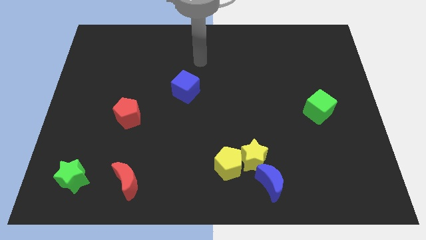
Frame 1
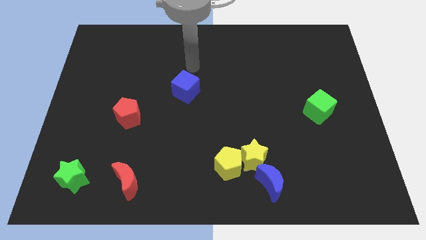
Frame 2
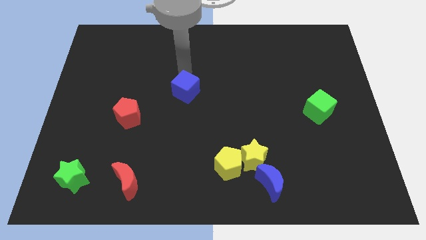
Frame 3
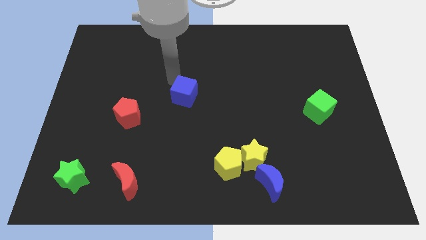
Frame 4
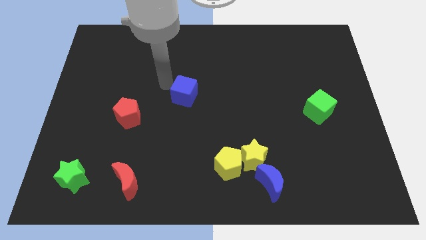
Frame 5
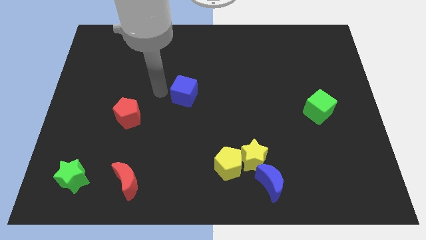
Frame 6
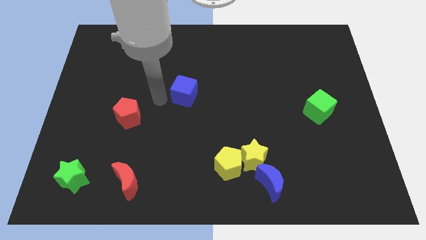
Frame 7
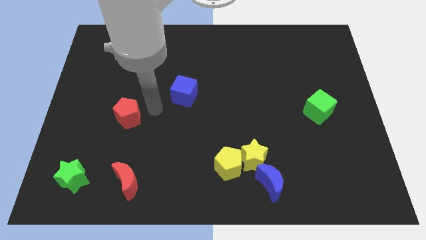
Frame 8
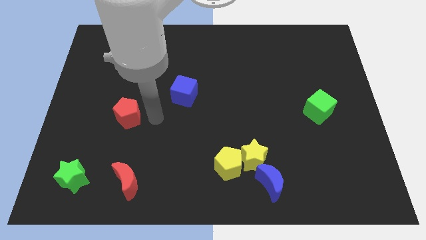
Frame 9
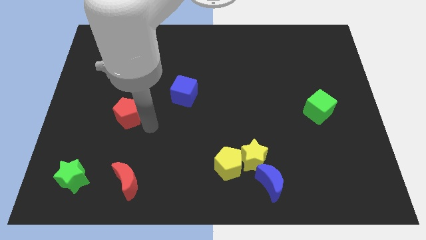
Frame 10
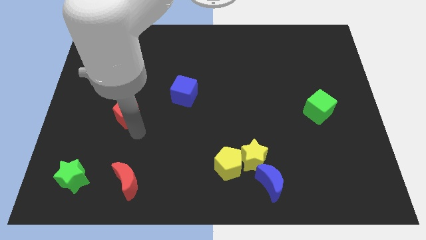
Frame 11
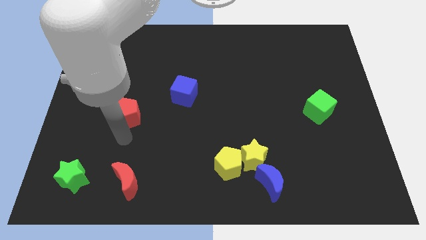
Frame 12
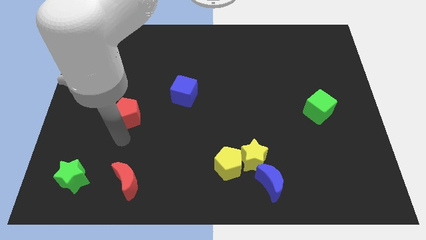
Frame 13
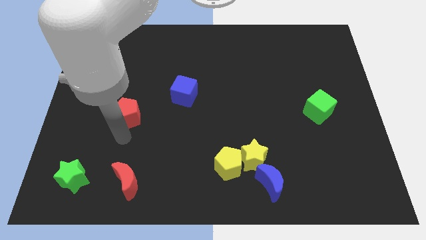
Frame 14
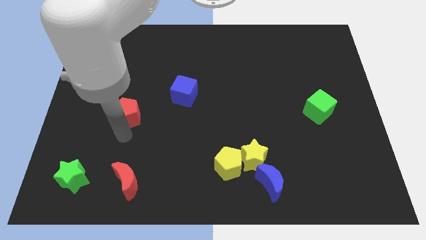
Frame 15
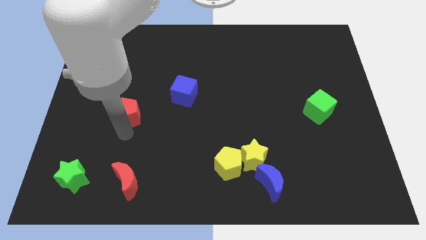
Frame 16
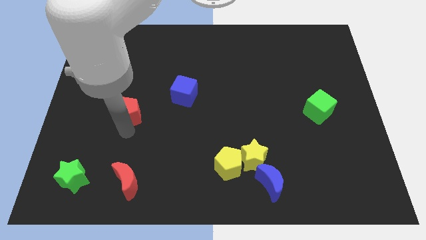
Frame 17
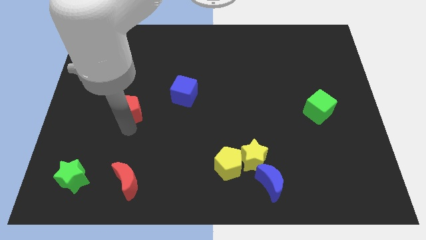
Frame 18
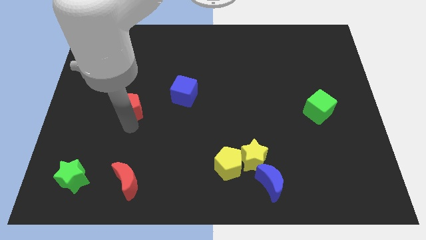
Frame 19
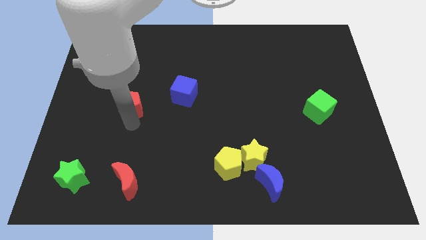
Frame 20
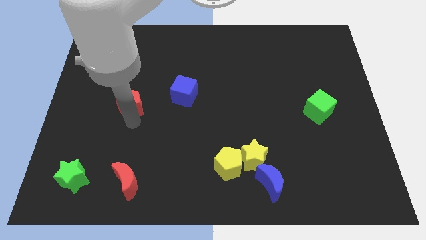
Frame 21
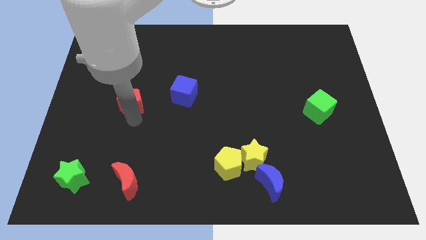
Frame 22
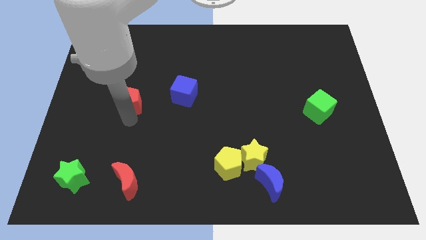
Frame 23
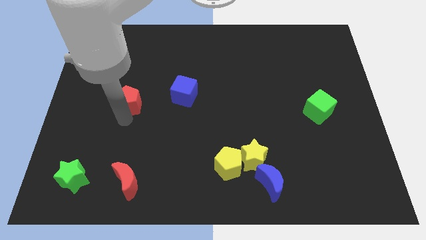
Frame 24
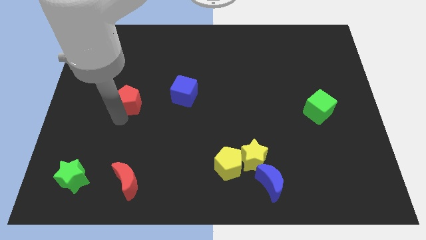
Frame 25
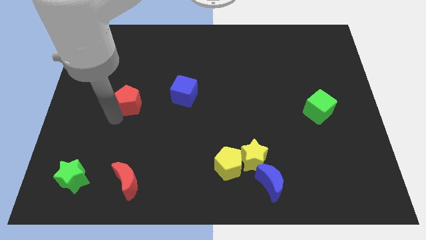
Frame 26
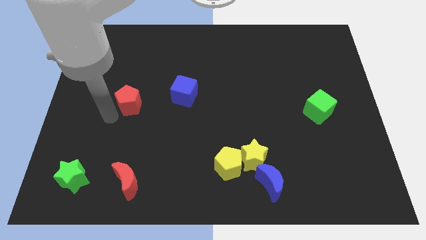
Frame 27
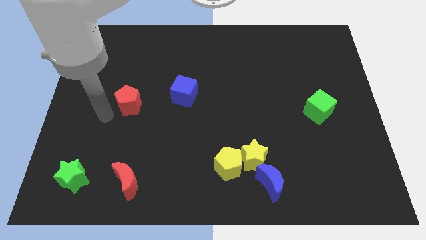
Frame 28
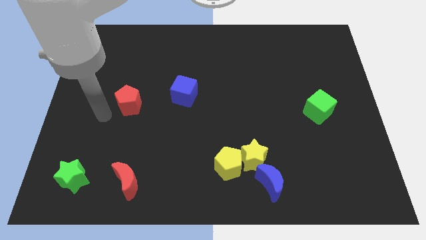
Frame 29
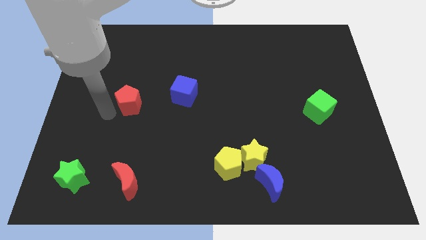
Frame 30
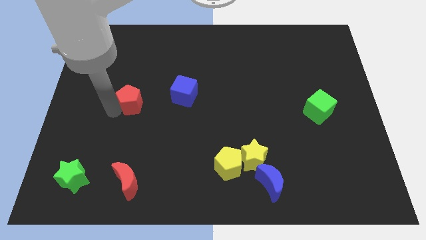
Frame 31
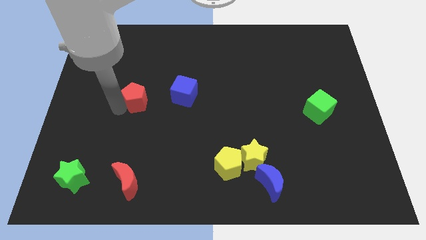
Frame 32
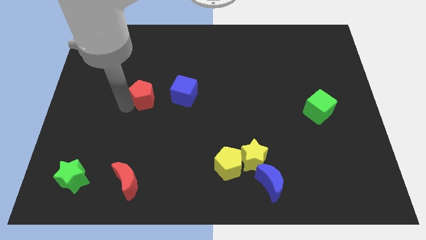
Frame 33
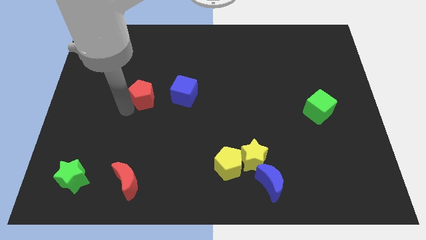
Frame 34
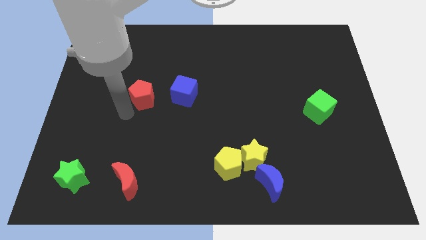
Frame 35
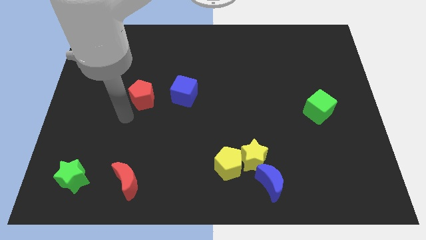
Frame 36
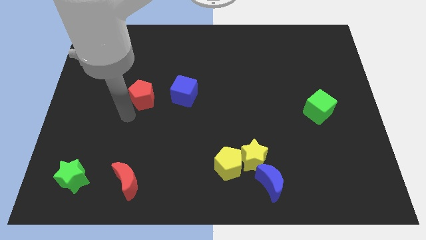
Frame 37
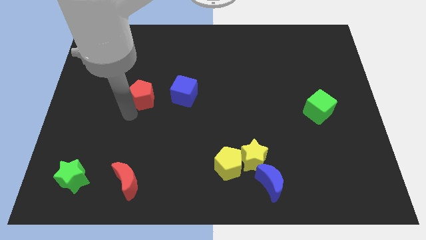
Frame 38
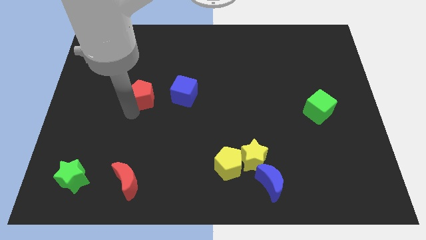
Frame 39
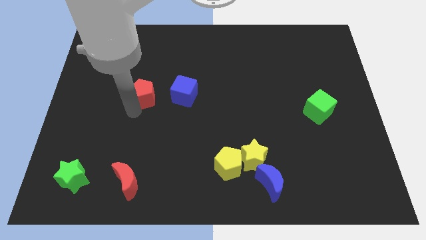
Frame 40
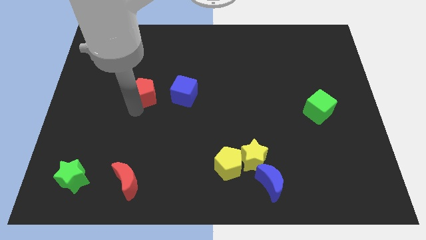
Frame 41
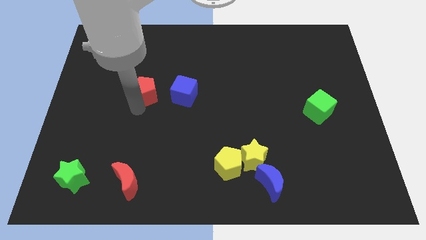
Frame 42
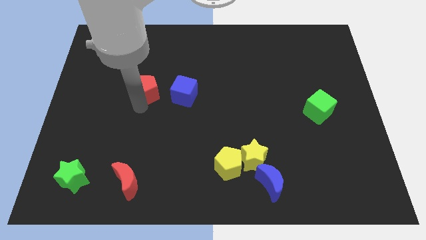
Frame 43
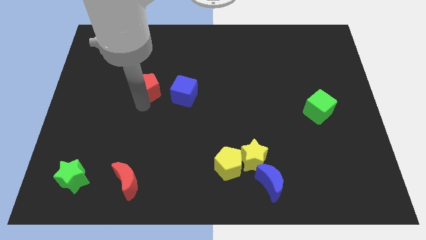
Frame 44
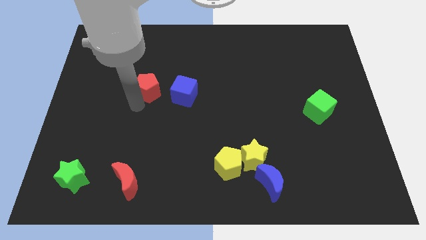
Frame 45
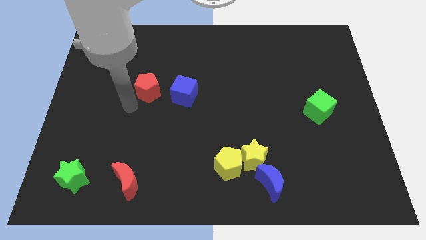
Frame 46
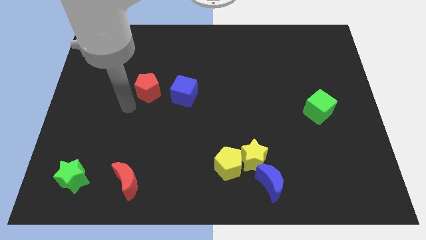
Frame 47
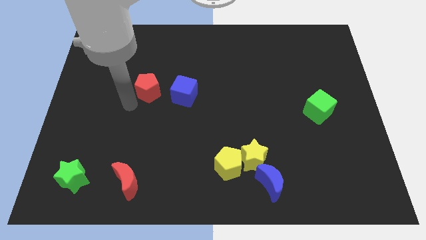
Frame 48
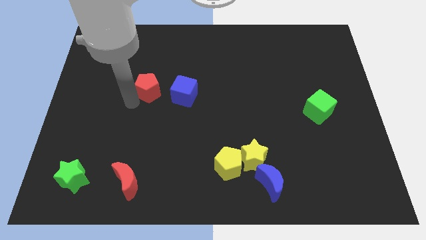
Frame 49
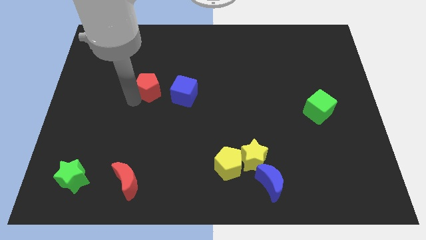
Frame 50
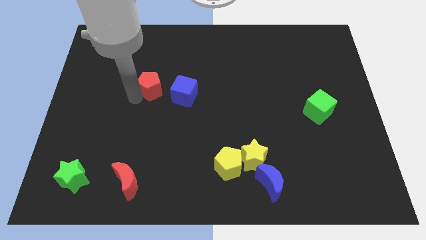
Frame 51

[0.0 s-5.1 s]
put the red pentagon to the top left side of the blue cube

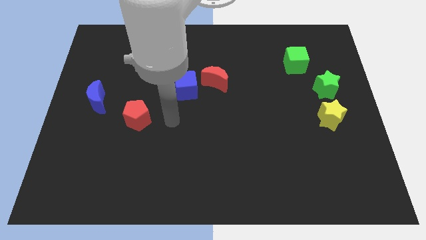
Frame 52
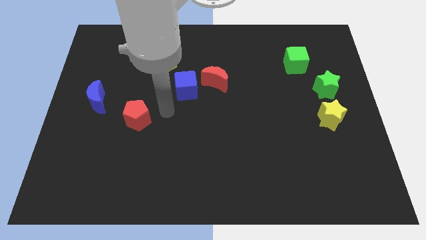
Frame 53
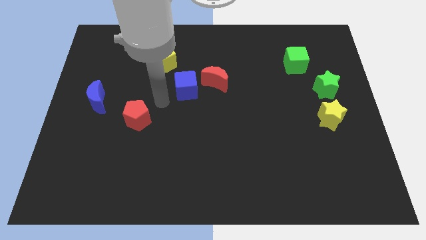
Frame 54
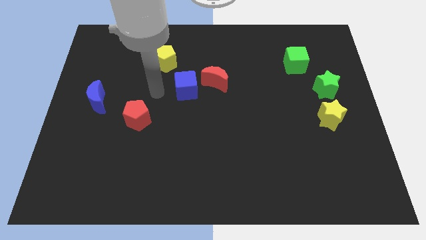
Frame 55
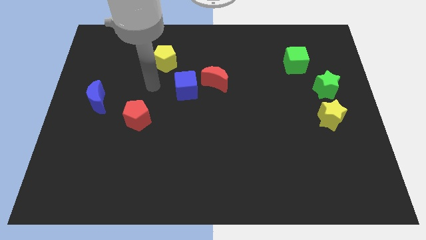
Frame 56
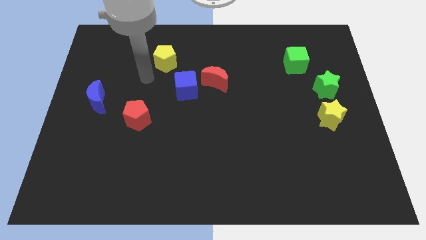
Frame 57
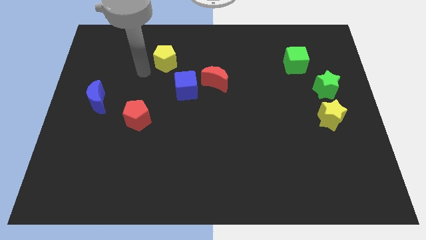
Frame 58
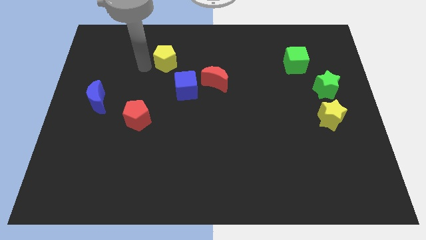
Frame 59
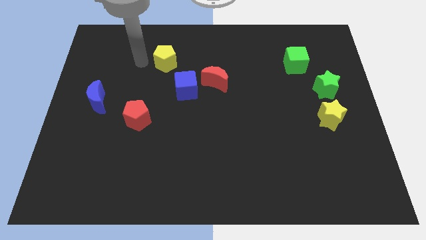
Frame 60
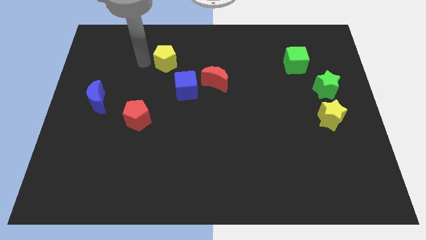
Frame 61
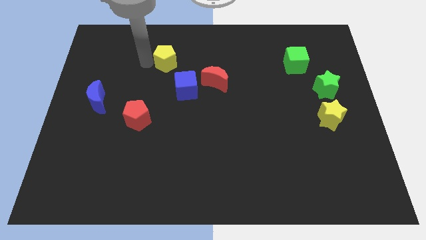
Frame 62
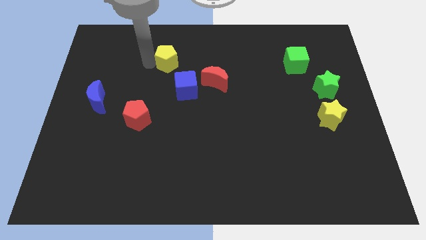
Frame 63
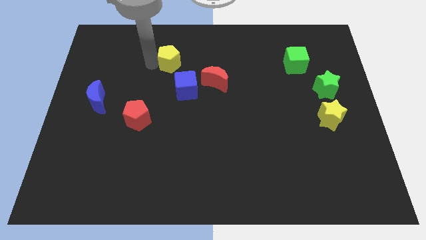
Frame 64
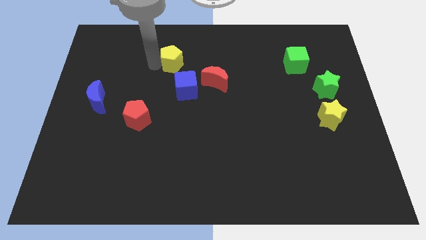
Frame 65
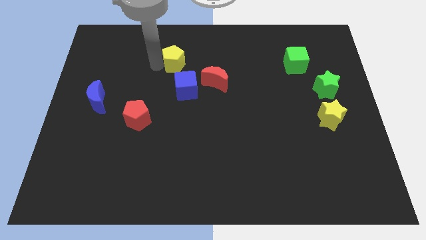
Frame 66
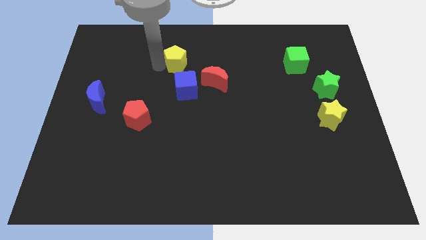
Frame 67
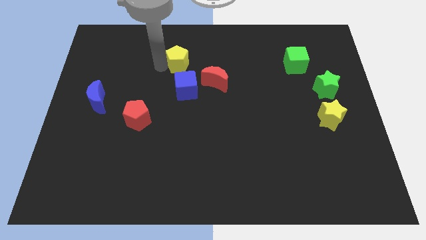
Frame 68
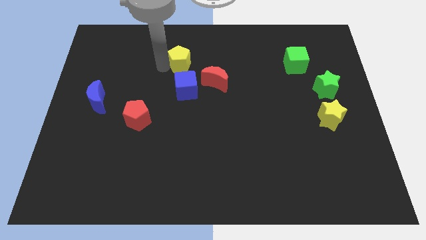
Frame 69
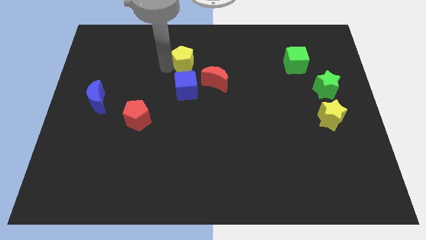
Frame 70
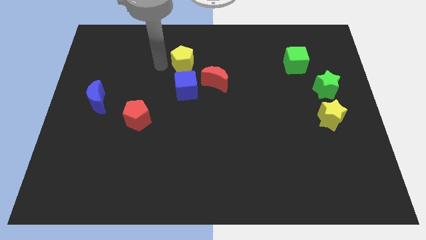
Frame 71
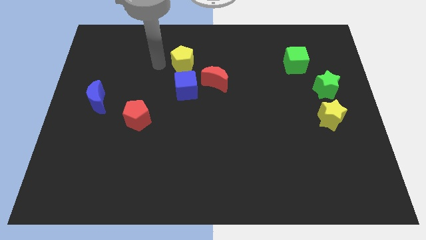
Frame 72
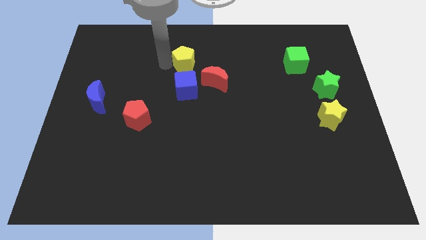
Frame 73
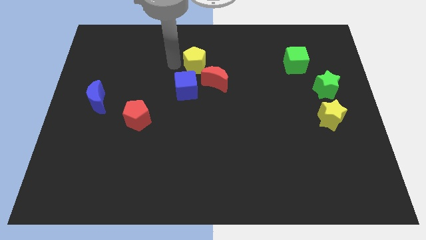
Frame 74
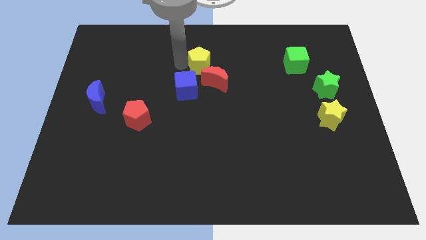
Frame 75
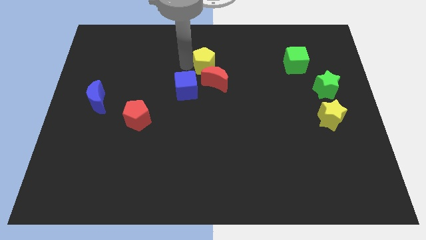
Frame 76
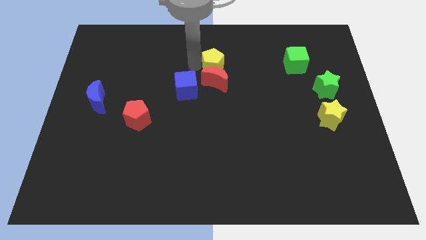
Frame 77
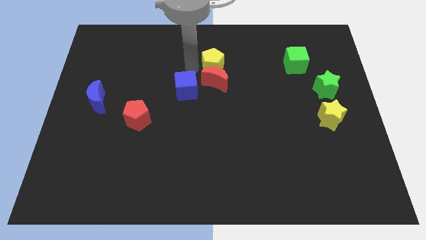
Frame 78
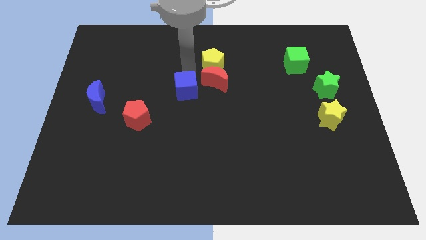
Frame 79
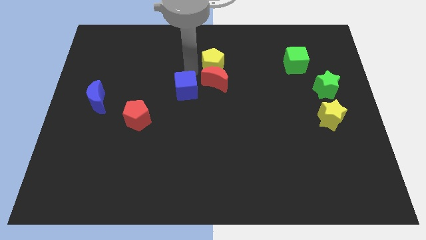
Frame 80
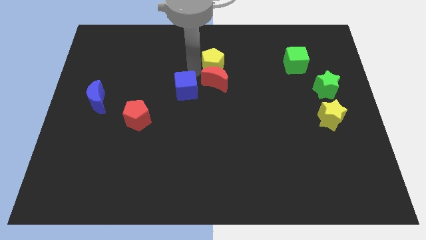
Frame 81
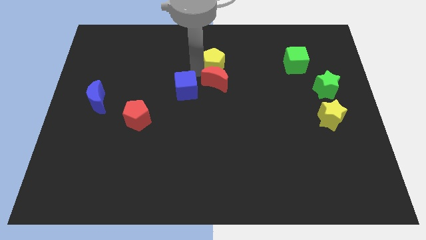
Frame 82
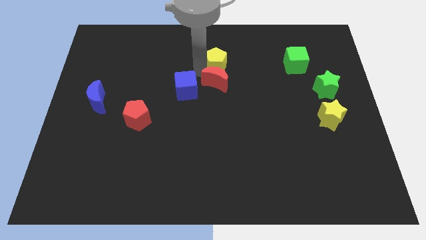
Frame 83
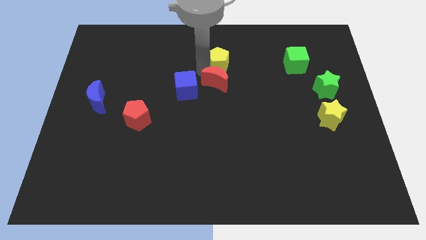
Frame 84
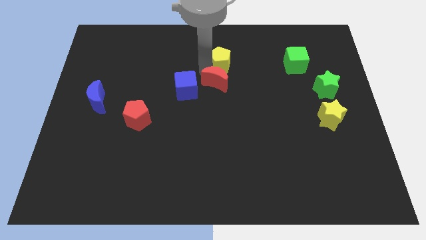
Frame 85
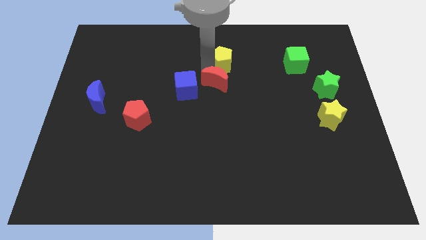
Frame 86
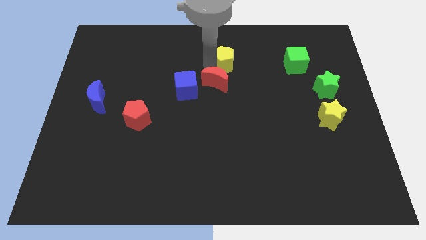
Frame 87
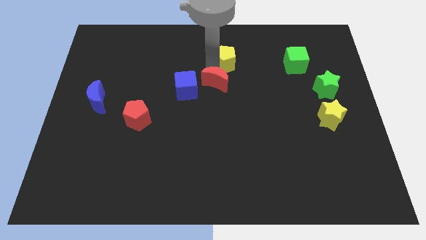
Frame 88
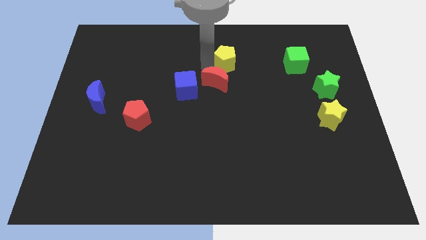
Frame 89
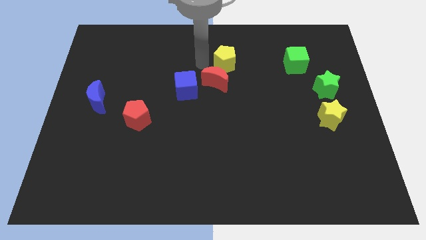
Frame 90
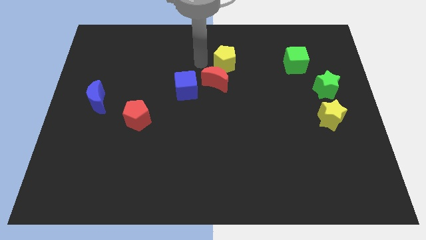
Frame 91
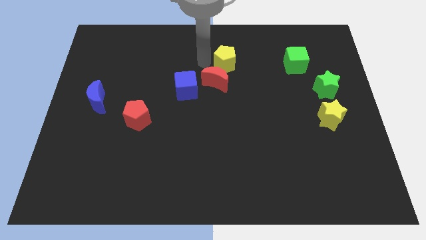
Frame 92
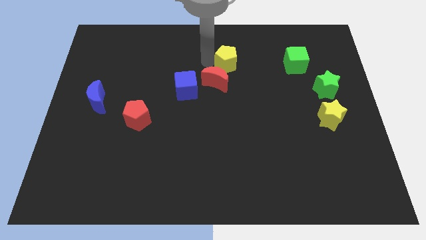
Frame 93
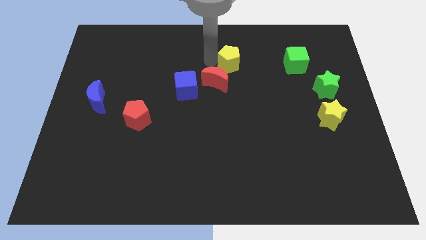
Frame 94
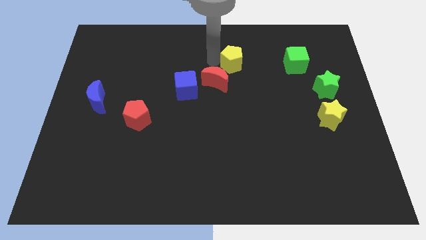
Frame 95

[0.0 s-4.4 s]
push the yellow pentagon just left of the green cube
